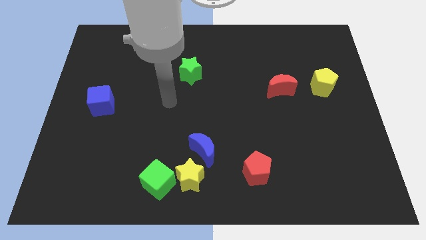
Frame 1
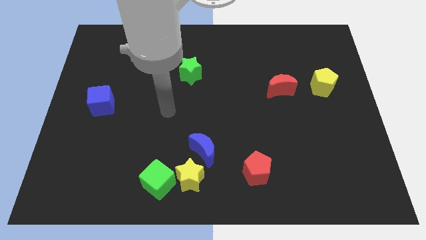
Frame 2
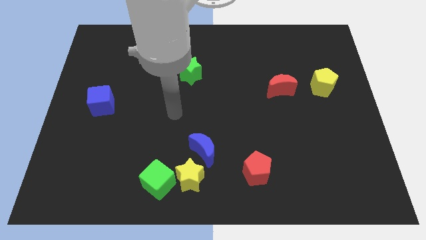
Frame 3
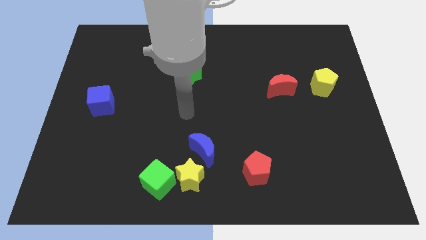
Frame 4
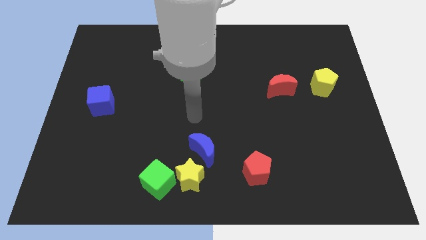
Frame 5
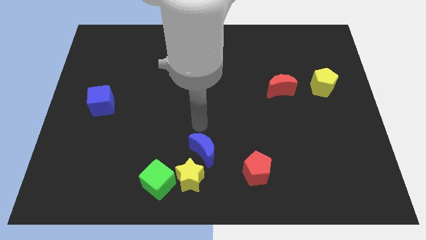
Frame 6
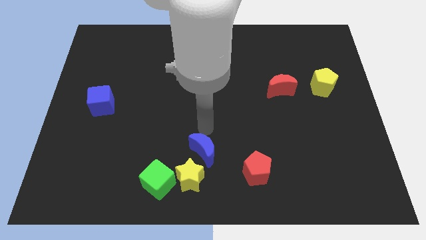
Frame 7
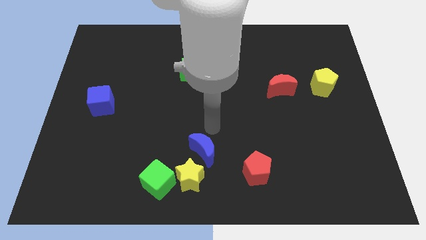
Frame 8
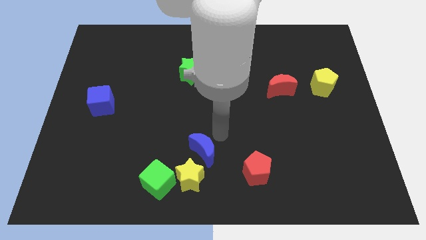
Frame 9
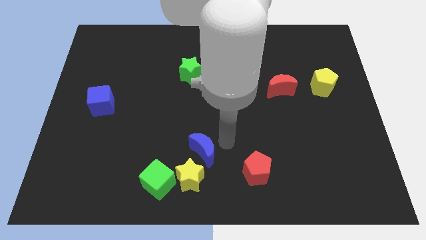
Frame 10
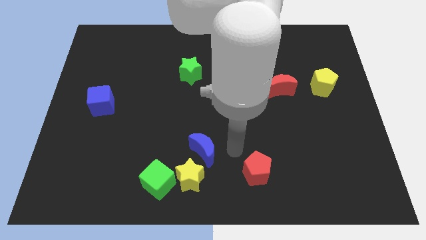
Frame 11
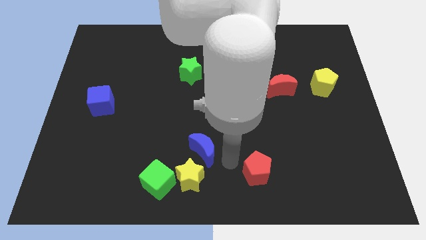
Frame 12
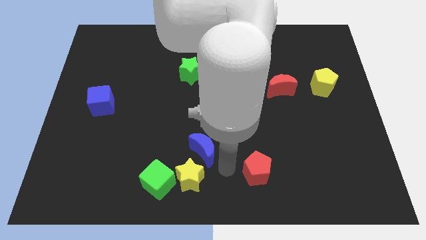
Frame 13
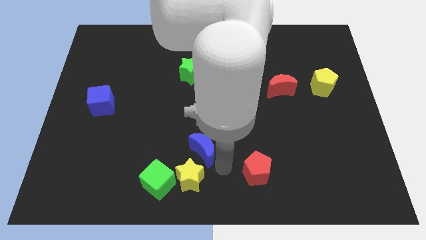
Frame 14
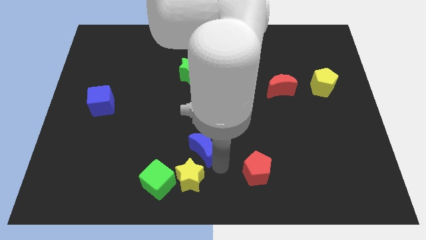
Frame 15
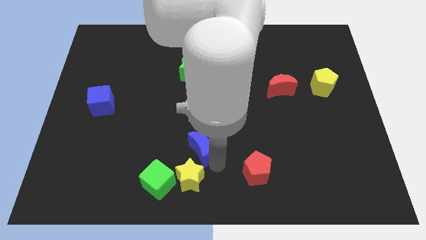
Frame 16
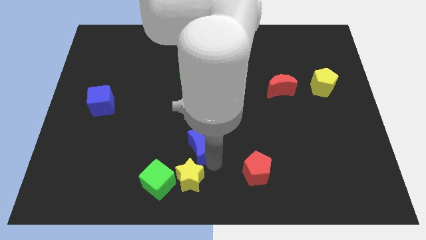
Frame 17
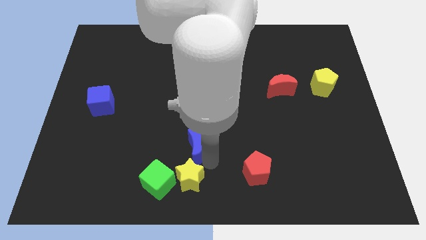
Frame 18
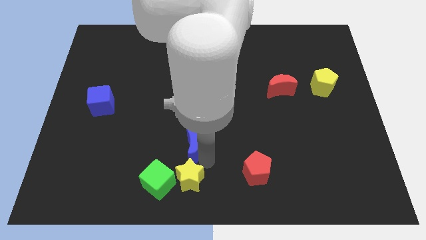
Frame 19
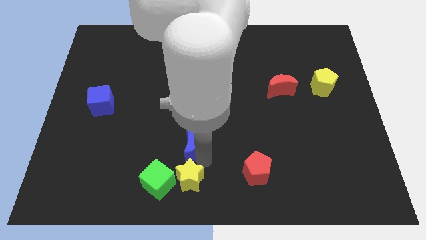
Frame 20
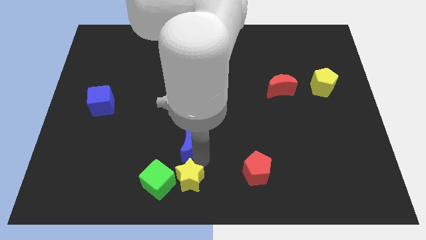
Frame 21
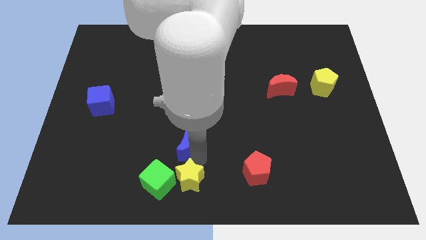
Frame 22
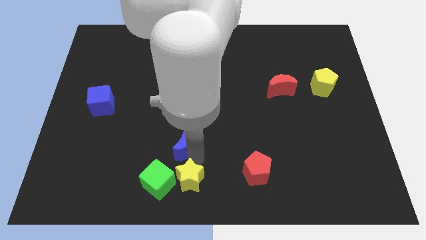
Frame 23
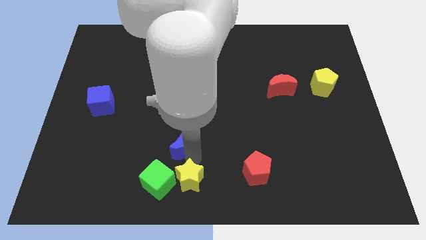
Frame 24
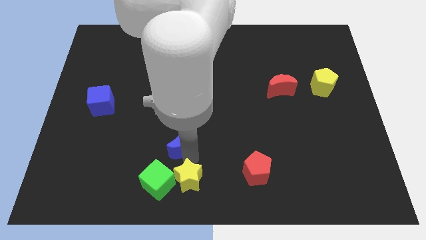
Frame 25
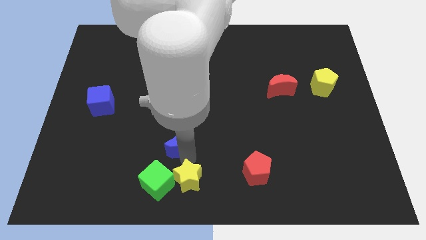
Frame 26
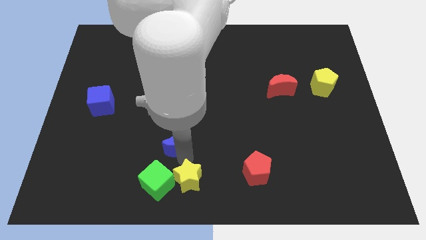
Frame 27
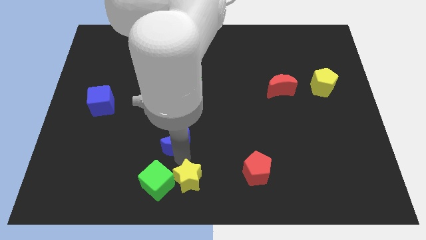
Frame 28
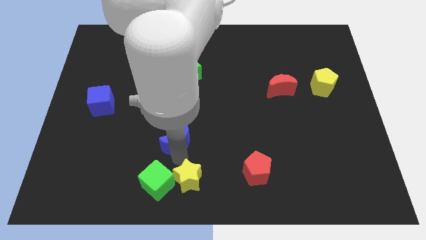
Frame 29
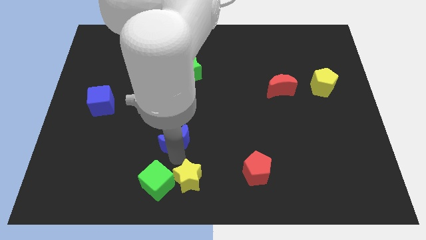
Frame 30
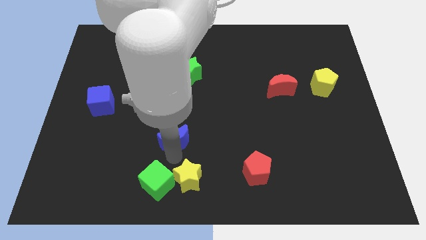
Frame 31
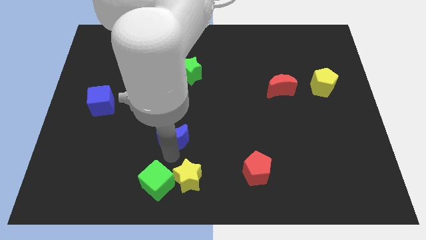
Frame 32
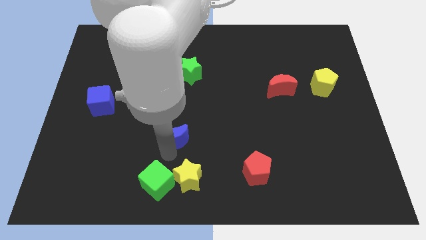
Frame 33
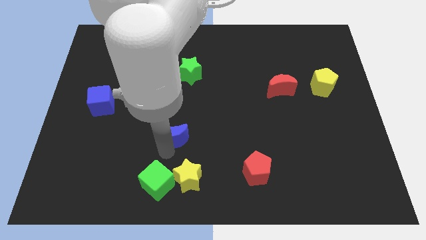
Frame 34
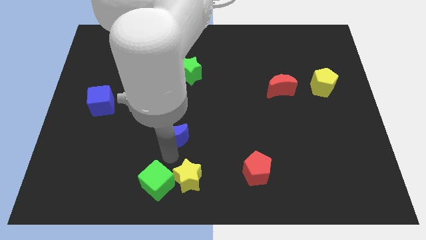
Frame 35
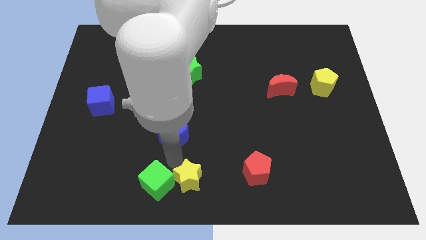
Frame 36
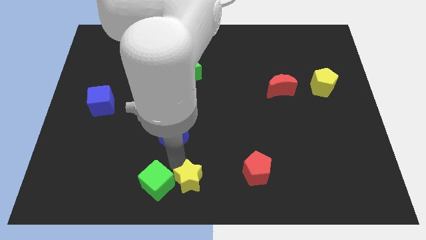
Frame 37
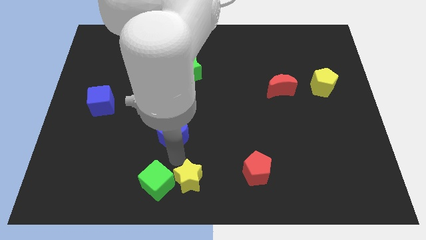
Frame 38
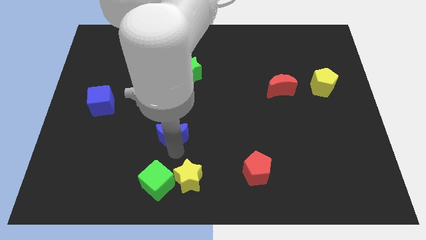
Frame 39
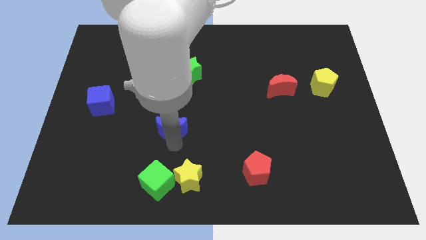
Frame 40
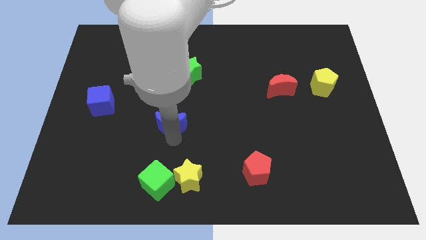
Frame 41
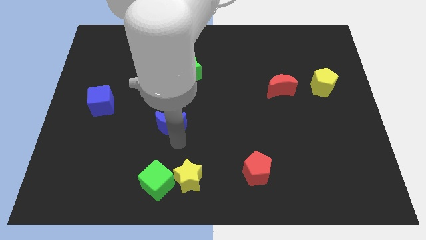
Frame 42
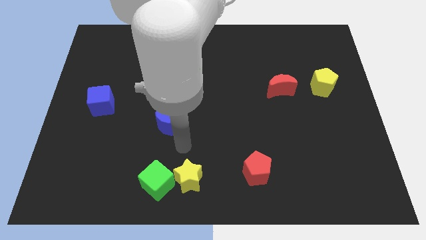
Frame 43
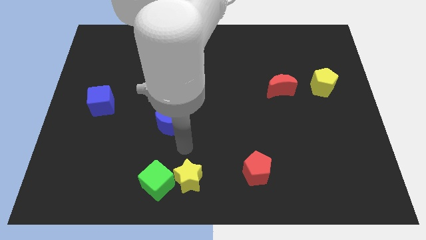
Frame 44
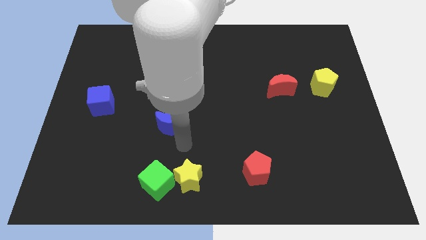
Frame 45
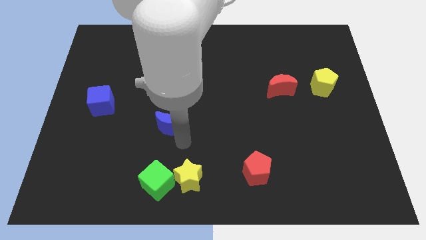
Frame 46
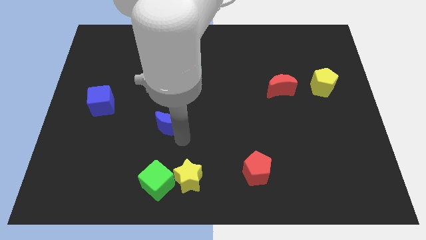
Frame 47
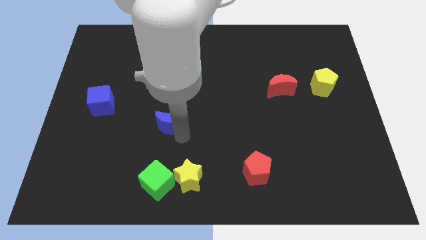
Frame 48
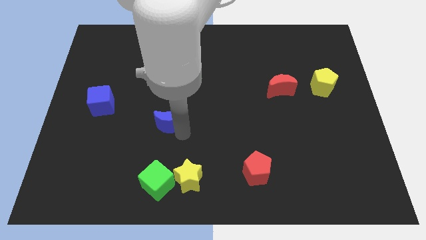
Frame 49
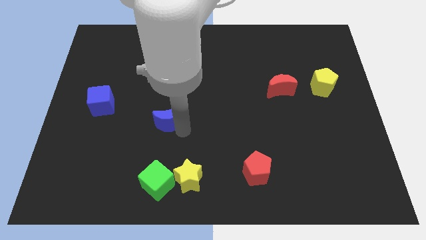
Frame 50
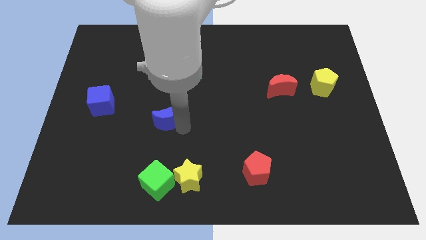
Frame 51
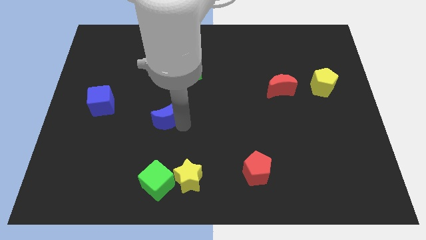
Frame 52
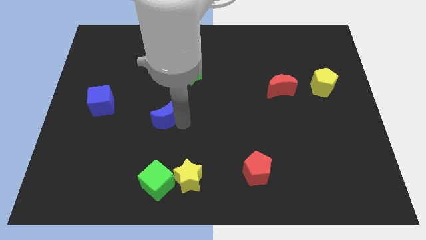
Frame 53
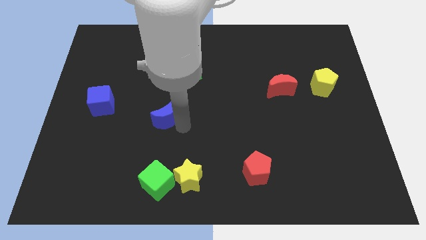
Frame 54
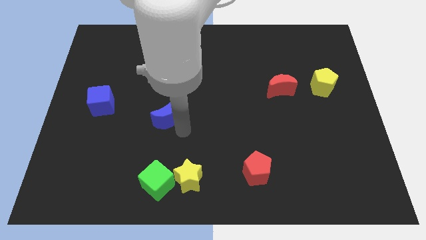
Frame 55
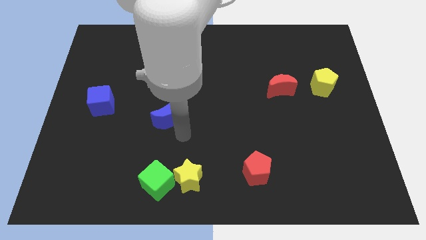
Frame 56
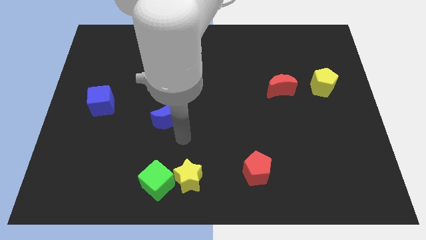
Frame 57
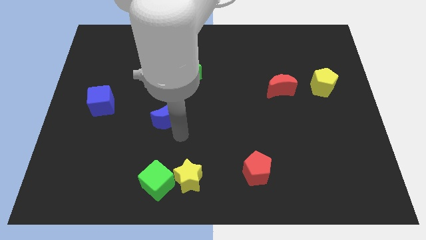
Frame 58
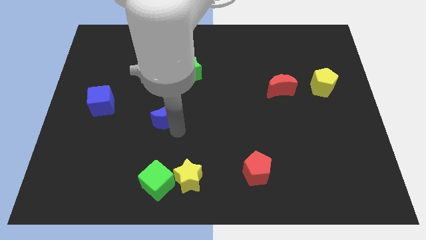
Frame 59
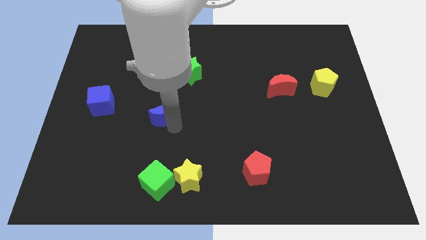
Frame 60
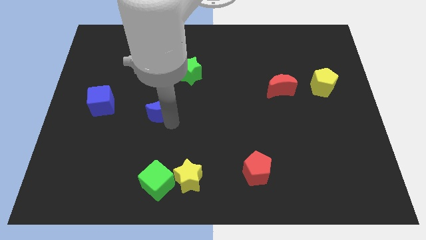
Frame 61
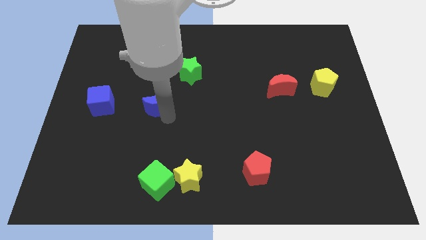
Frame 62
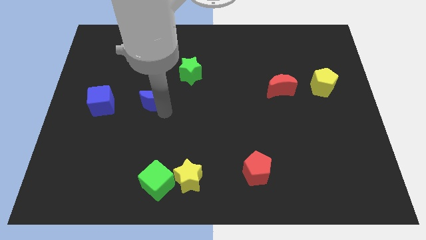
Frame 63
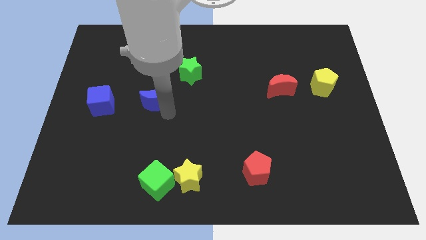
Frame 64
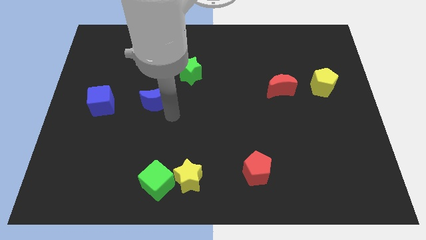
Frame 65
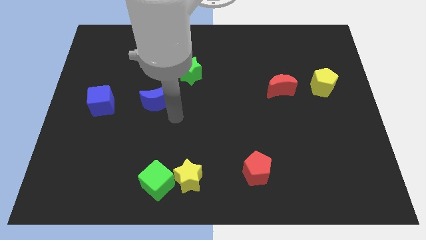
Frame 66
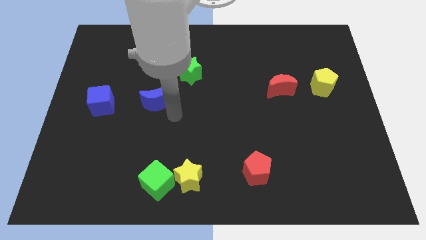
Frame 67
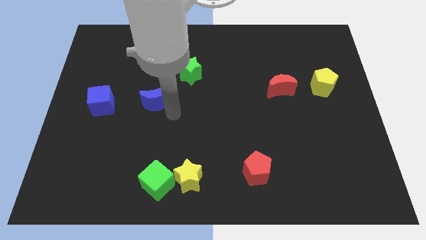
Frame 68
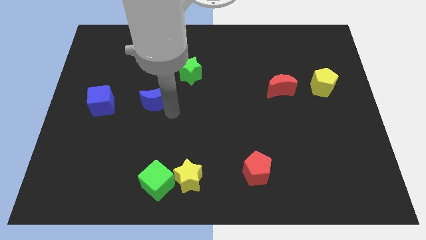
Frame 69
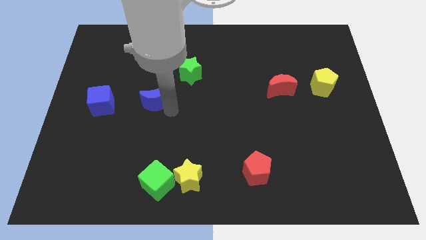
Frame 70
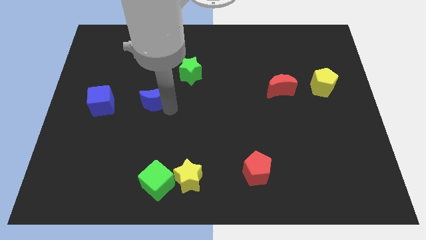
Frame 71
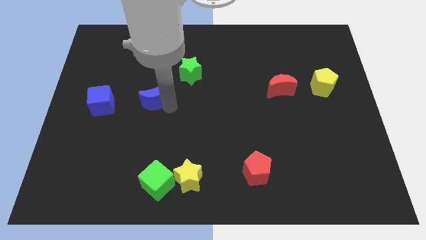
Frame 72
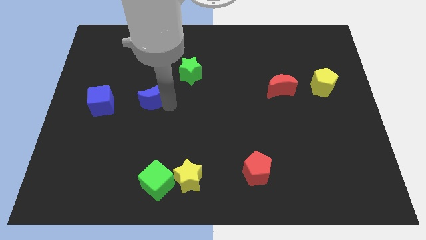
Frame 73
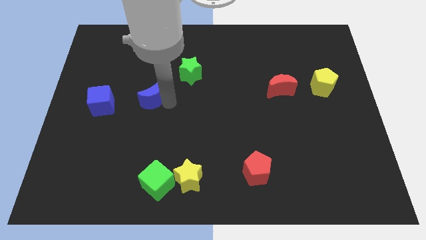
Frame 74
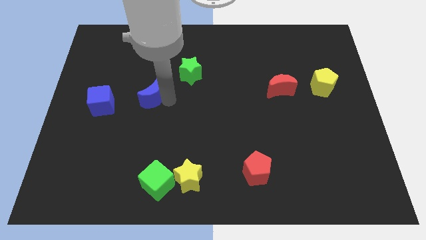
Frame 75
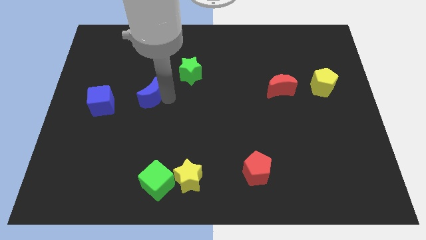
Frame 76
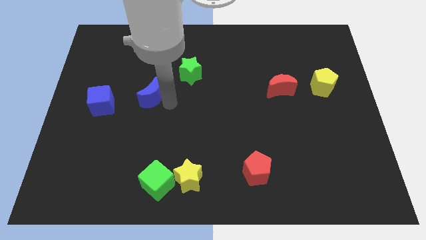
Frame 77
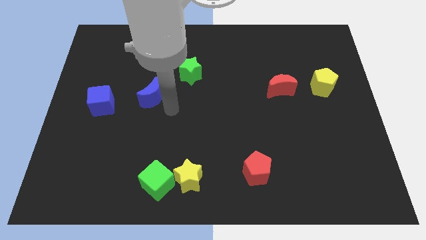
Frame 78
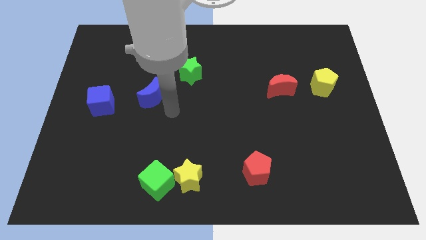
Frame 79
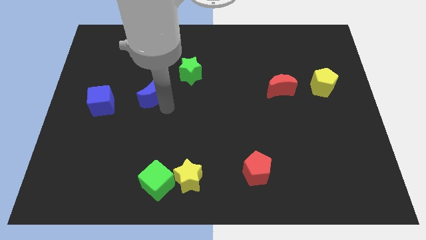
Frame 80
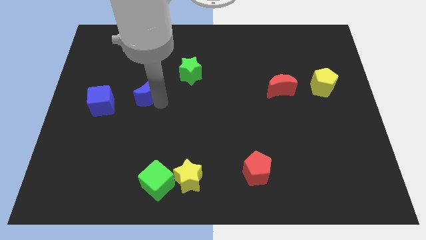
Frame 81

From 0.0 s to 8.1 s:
push the blue moon up and to the left
